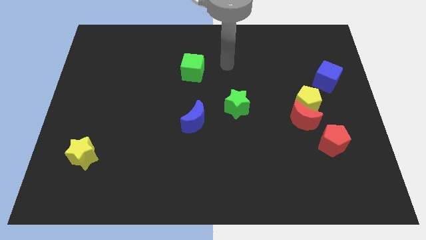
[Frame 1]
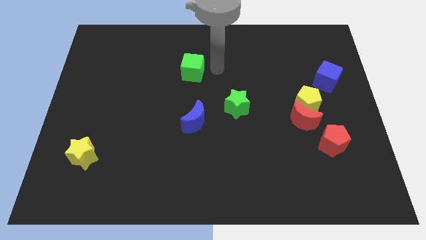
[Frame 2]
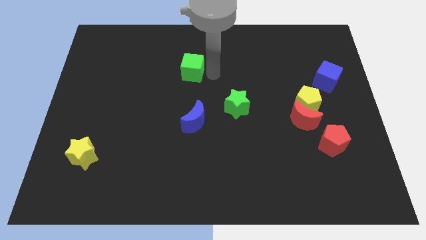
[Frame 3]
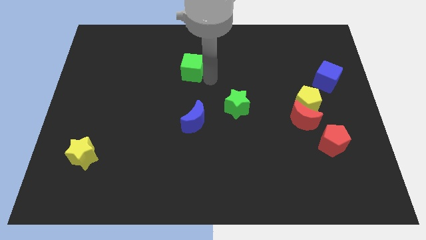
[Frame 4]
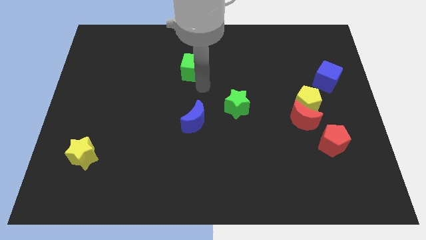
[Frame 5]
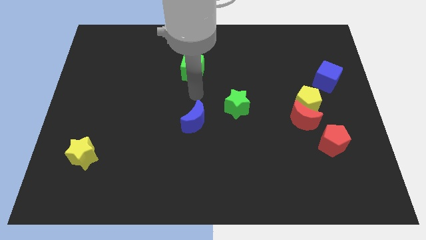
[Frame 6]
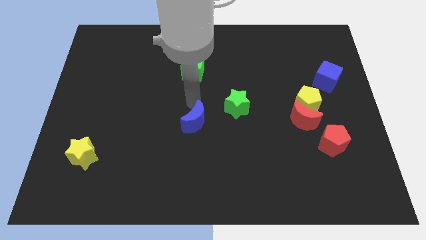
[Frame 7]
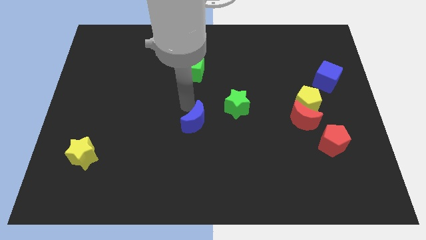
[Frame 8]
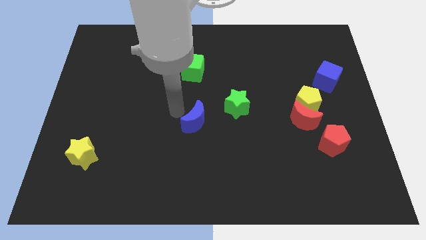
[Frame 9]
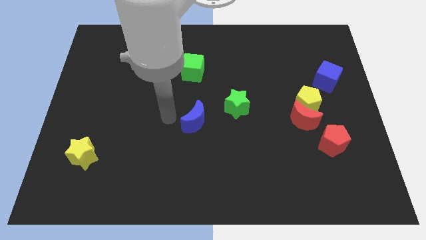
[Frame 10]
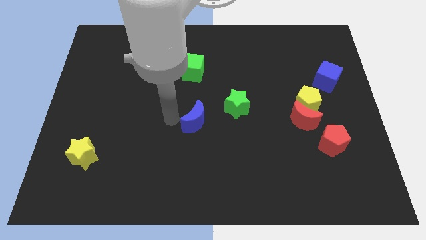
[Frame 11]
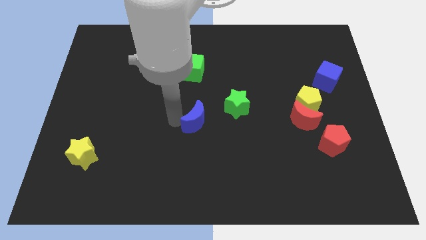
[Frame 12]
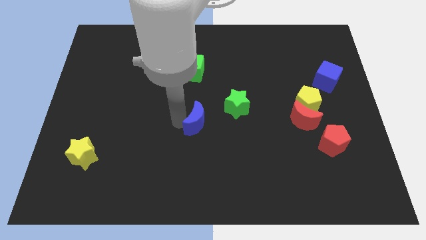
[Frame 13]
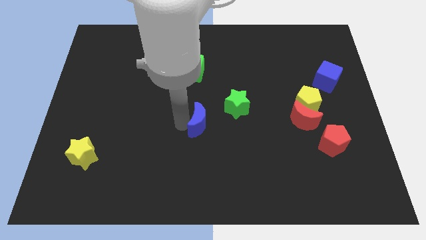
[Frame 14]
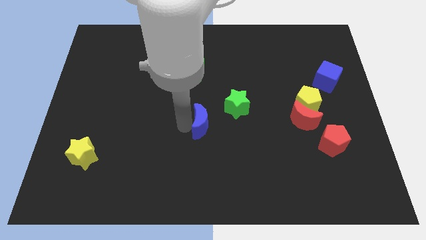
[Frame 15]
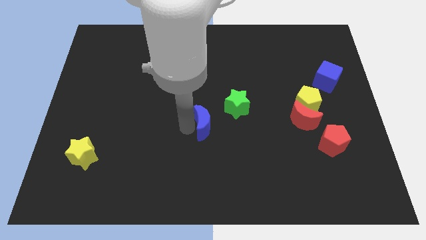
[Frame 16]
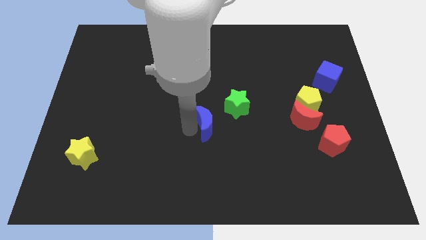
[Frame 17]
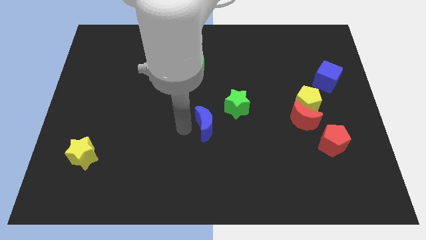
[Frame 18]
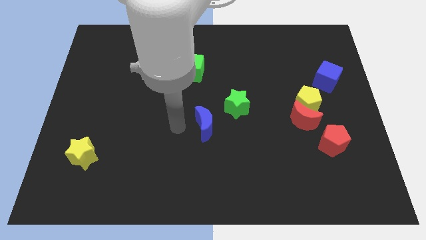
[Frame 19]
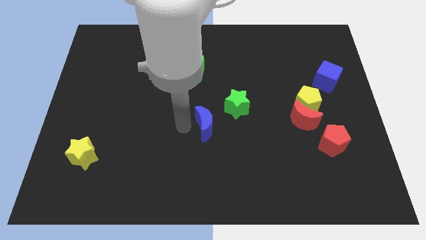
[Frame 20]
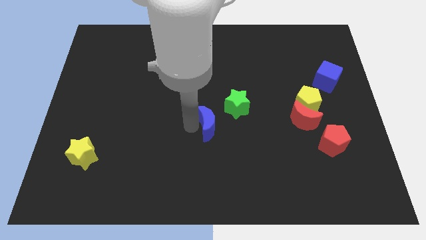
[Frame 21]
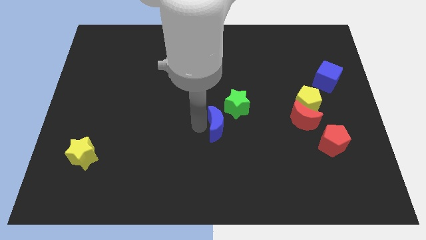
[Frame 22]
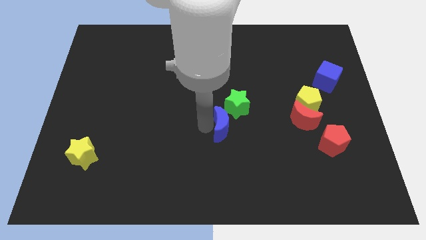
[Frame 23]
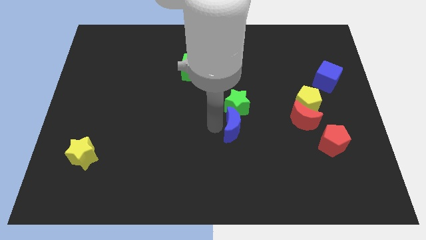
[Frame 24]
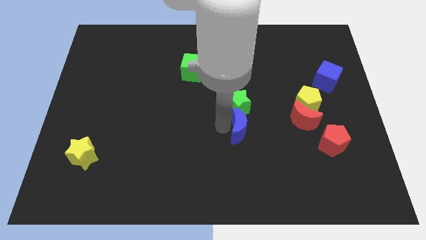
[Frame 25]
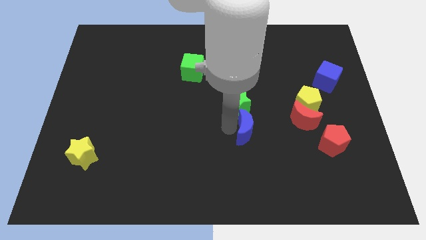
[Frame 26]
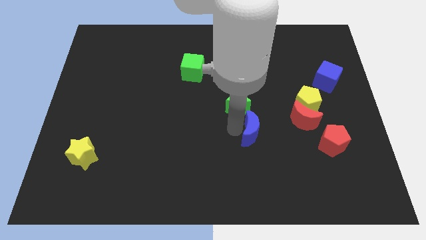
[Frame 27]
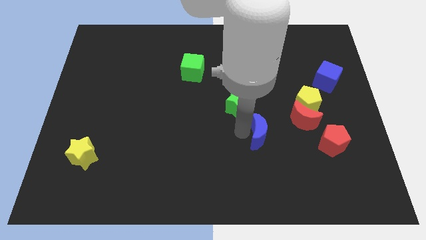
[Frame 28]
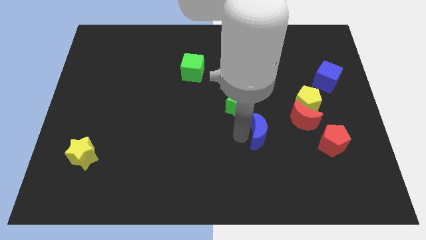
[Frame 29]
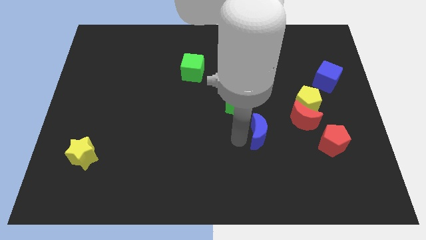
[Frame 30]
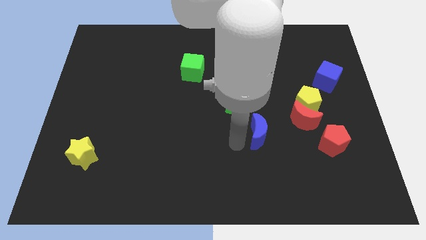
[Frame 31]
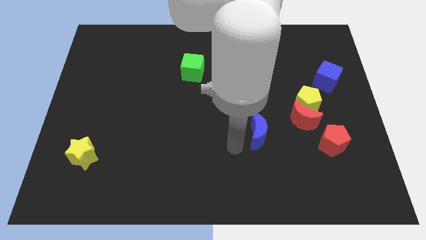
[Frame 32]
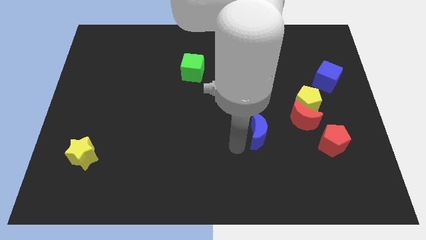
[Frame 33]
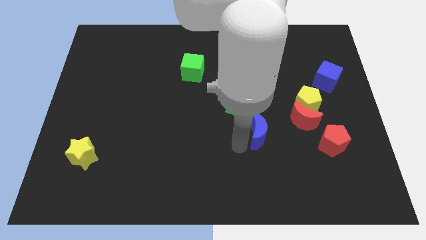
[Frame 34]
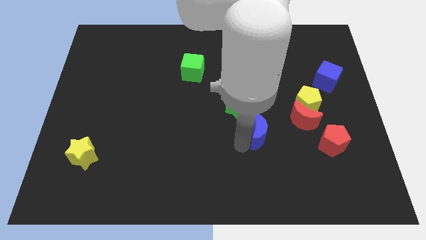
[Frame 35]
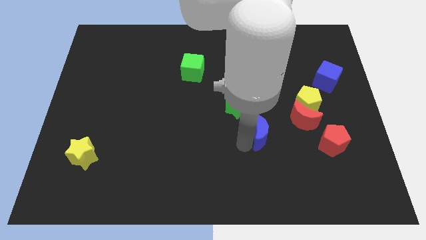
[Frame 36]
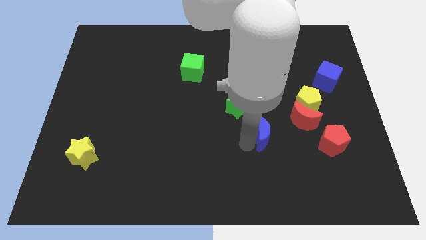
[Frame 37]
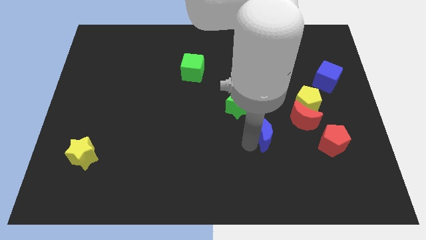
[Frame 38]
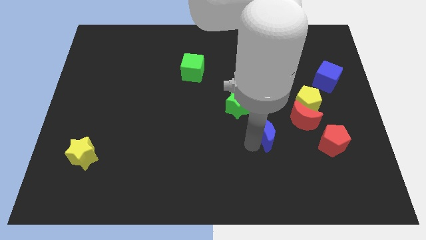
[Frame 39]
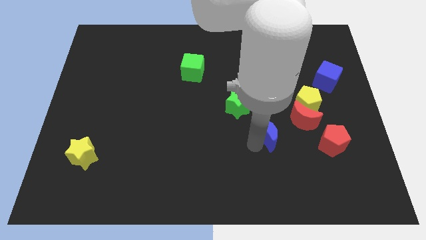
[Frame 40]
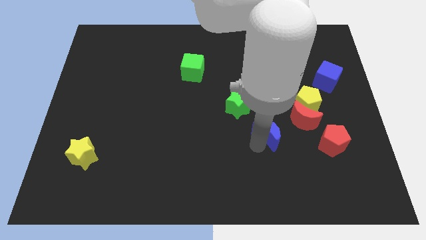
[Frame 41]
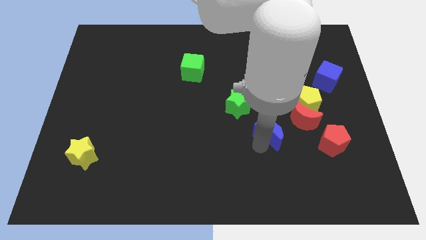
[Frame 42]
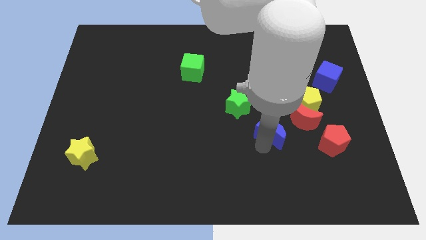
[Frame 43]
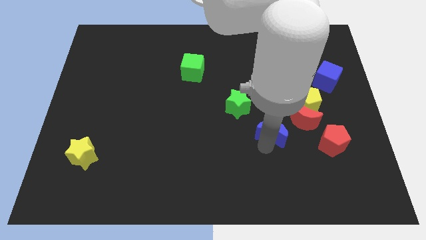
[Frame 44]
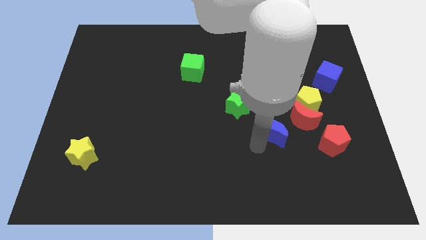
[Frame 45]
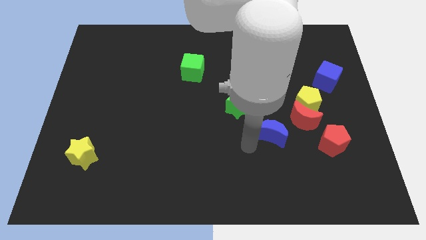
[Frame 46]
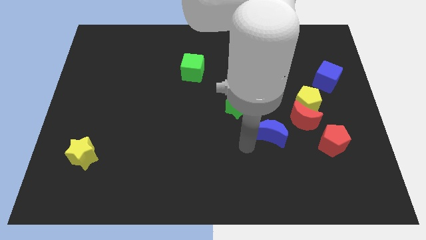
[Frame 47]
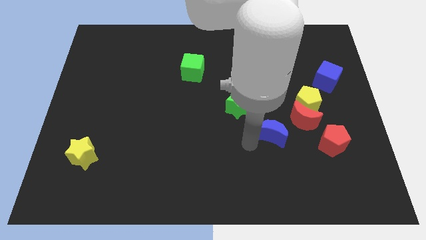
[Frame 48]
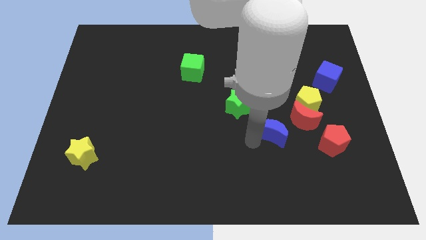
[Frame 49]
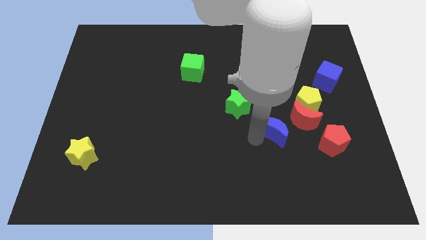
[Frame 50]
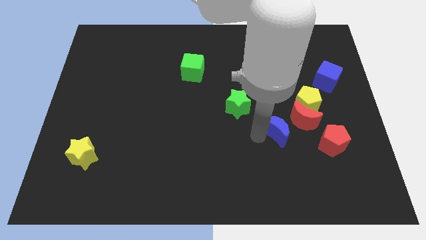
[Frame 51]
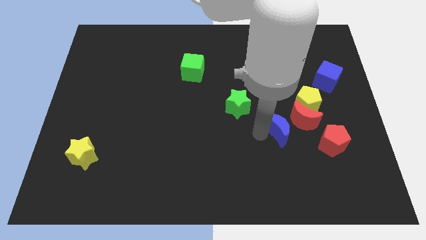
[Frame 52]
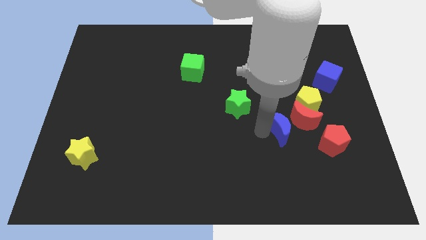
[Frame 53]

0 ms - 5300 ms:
move the blue moon towards the red moon

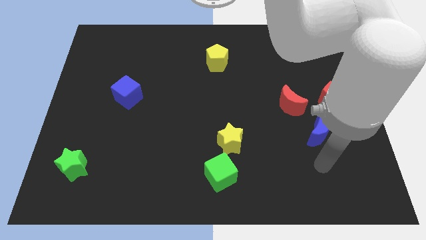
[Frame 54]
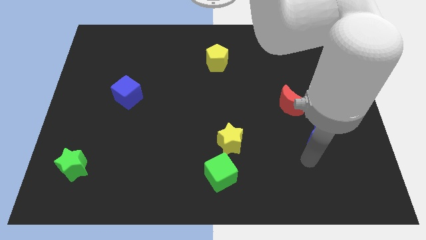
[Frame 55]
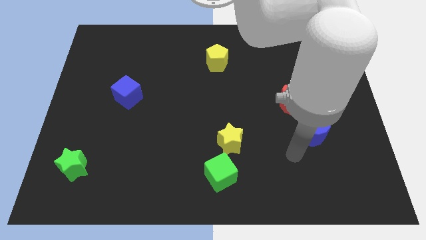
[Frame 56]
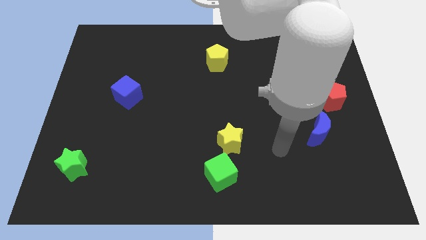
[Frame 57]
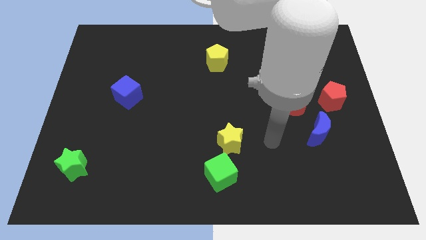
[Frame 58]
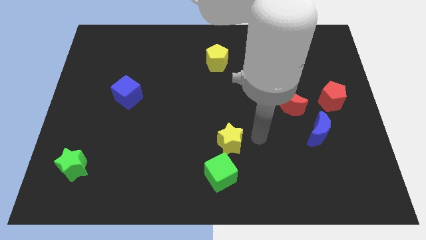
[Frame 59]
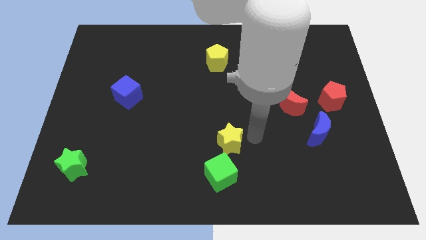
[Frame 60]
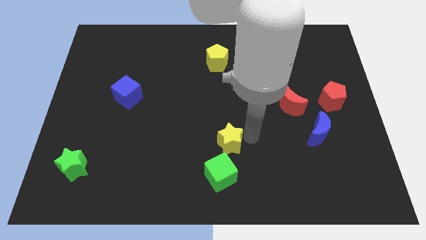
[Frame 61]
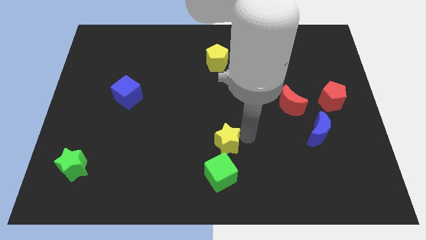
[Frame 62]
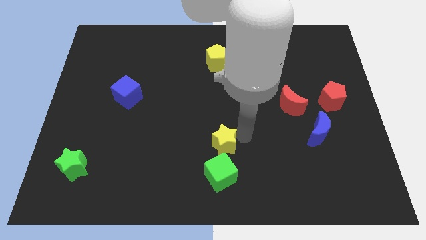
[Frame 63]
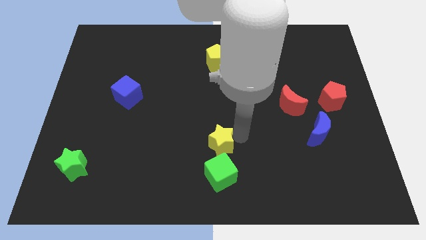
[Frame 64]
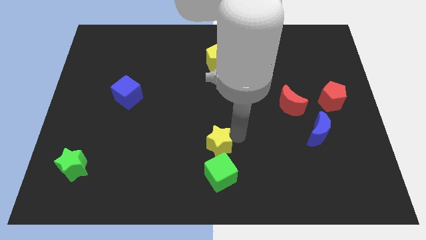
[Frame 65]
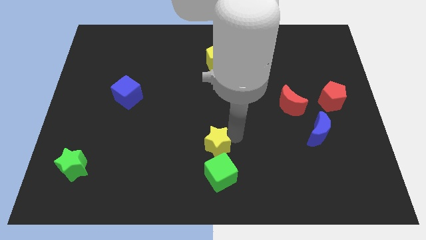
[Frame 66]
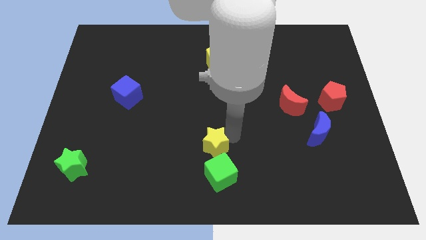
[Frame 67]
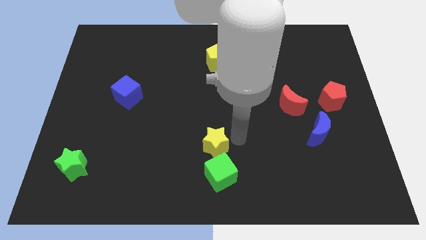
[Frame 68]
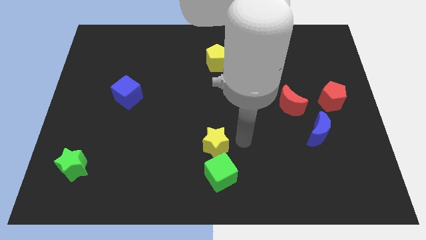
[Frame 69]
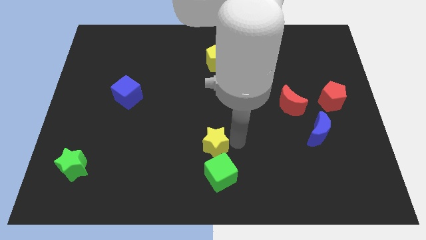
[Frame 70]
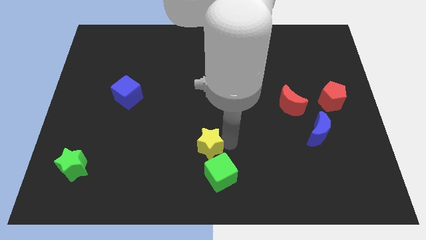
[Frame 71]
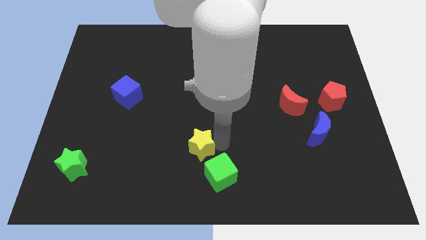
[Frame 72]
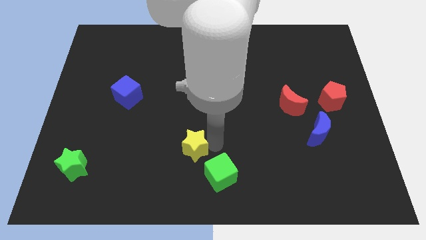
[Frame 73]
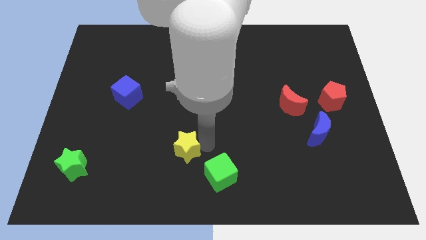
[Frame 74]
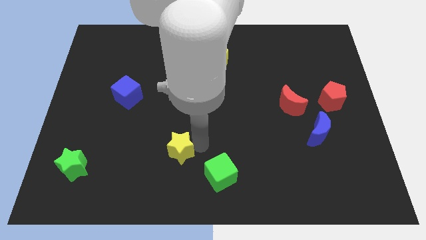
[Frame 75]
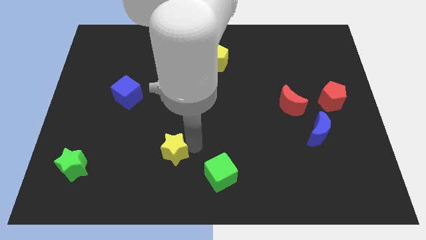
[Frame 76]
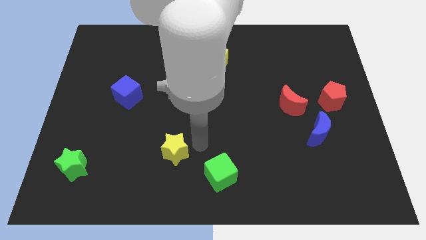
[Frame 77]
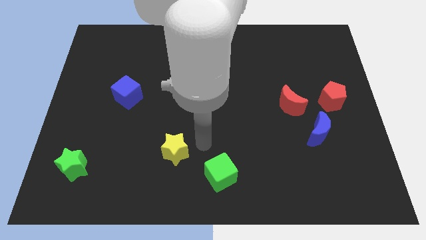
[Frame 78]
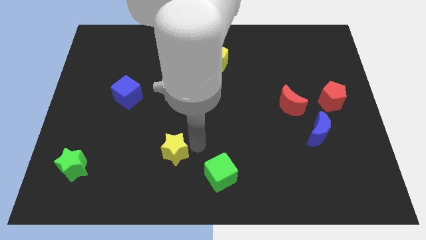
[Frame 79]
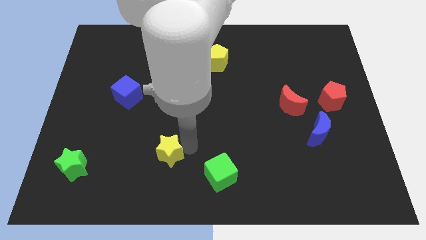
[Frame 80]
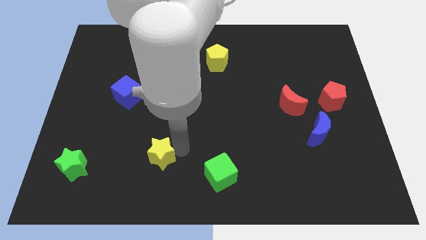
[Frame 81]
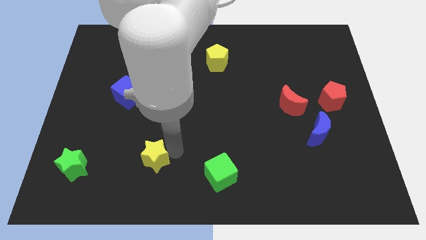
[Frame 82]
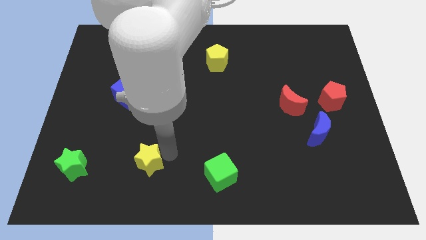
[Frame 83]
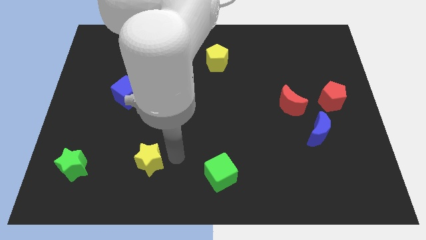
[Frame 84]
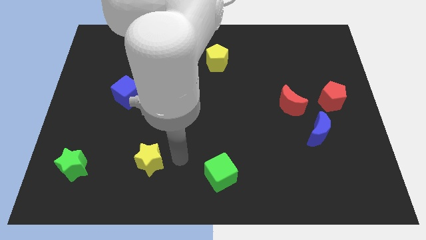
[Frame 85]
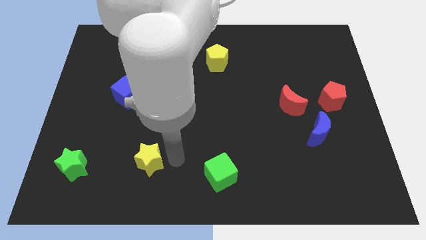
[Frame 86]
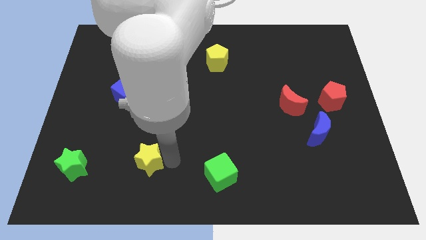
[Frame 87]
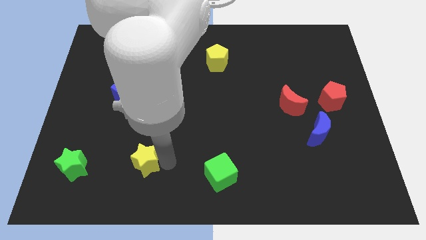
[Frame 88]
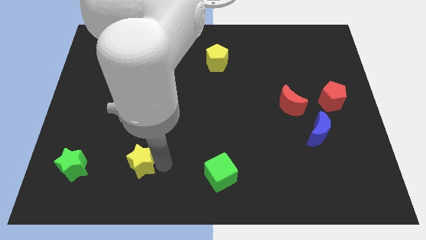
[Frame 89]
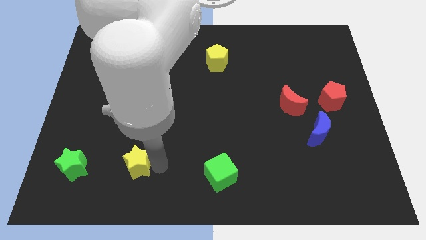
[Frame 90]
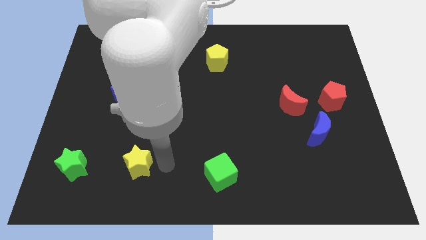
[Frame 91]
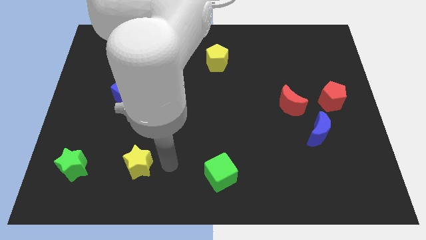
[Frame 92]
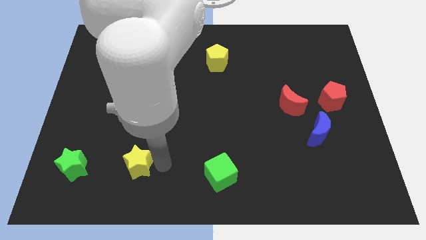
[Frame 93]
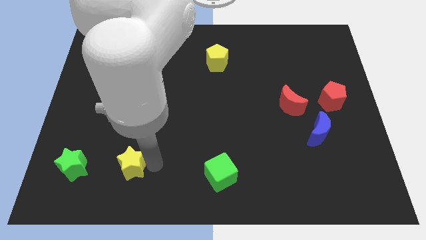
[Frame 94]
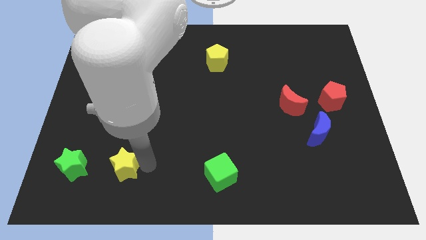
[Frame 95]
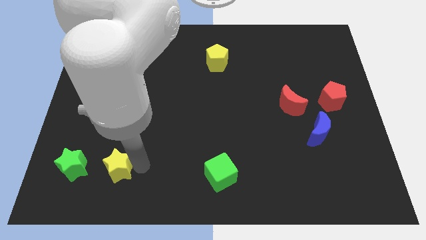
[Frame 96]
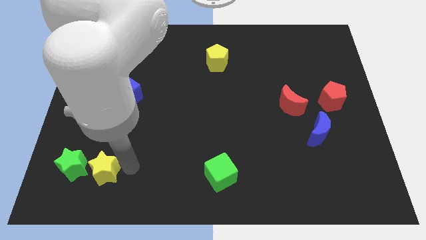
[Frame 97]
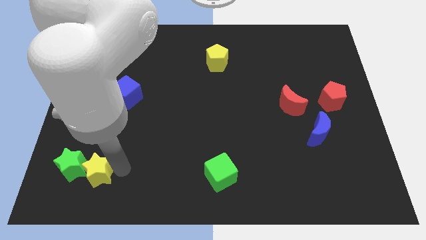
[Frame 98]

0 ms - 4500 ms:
put the yellow star close to the green star
